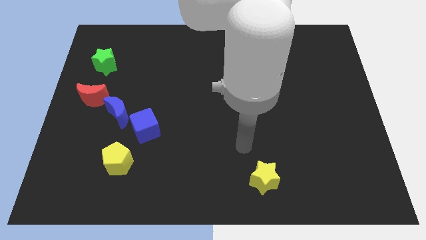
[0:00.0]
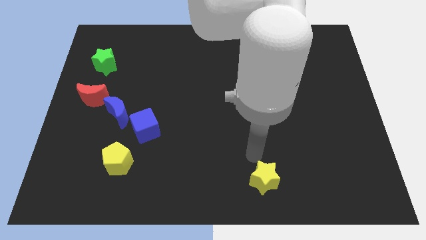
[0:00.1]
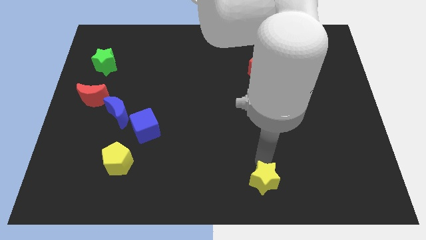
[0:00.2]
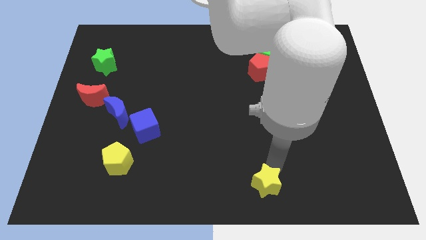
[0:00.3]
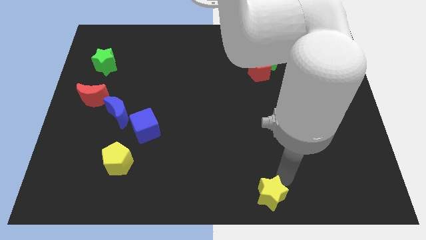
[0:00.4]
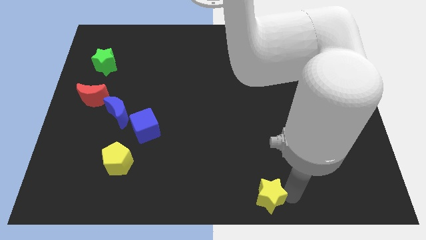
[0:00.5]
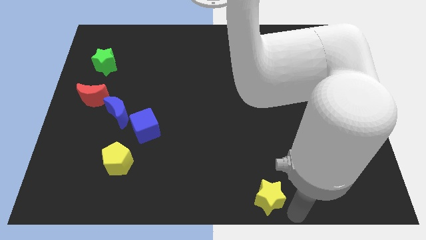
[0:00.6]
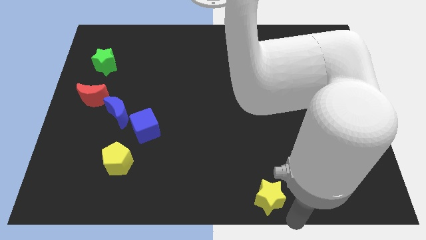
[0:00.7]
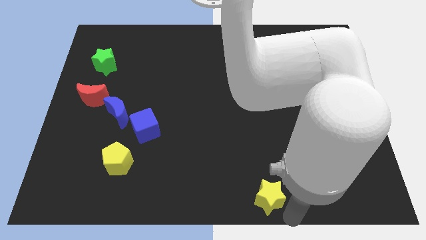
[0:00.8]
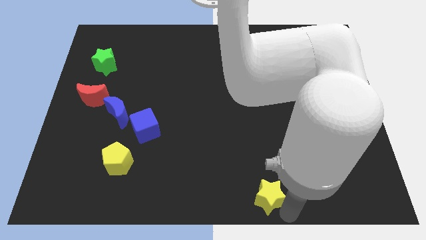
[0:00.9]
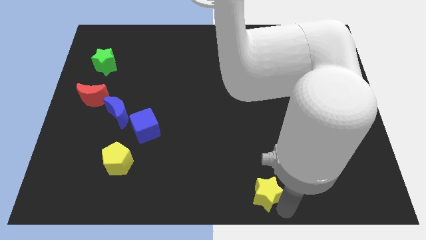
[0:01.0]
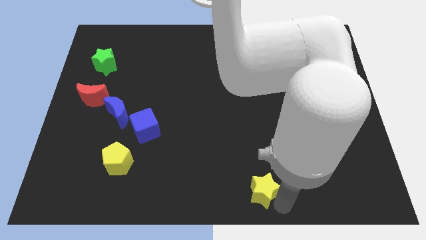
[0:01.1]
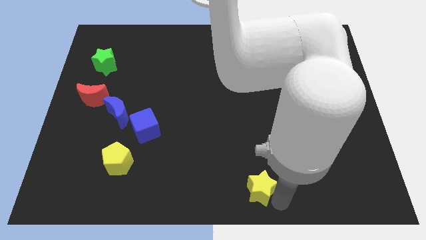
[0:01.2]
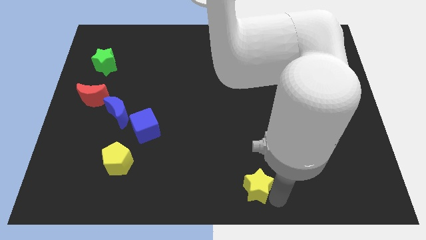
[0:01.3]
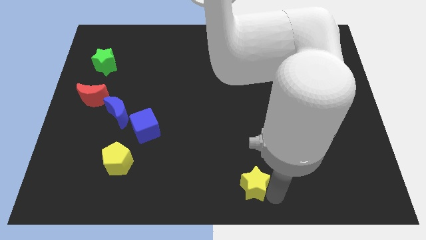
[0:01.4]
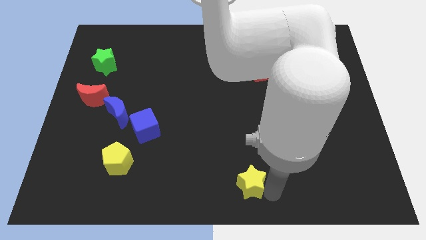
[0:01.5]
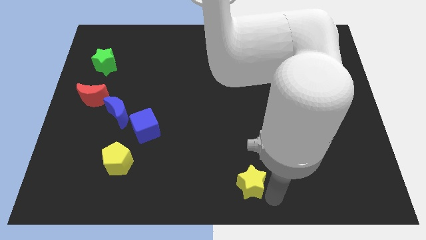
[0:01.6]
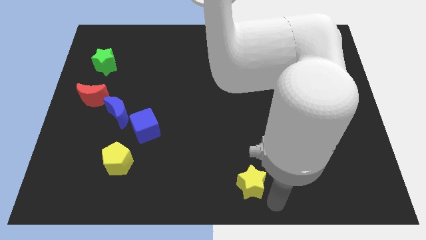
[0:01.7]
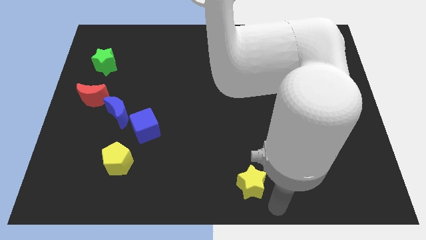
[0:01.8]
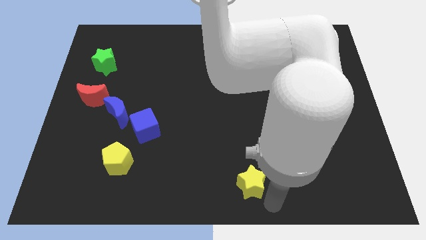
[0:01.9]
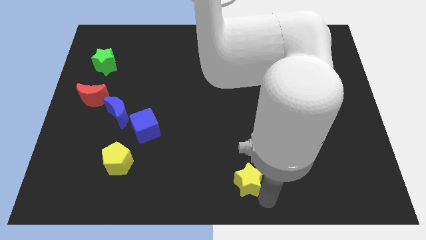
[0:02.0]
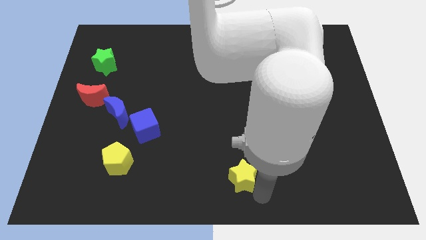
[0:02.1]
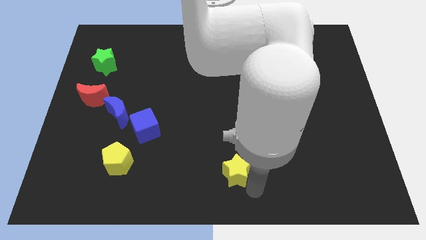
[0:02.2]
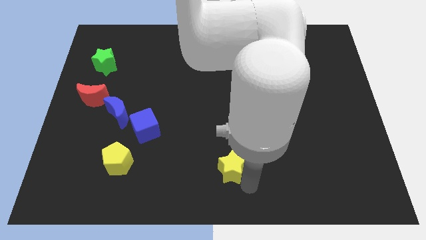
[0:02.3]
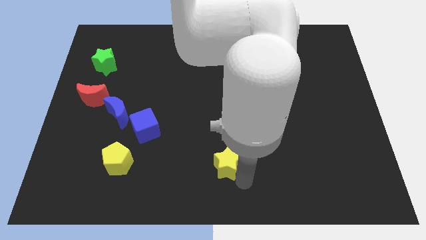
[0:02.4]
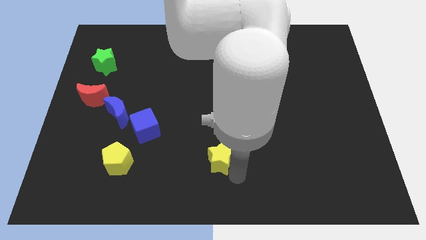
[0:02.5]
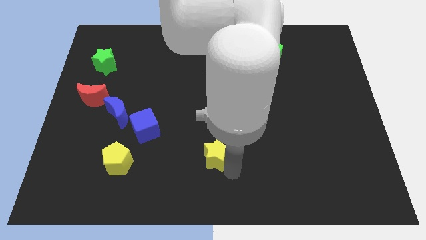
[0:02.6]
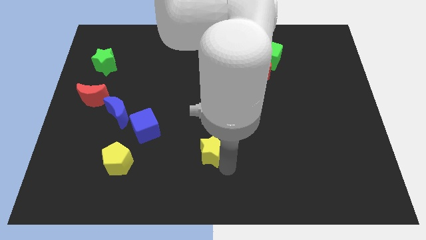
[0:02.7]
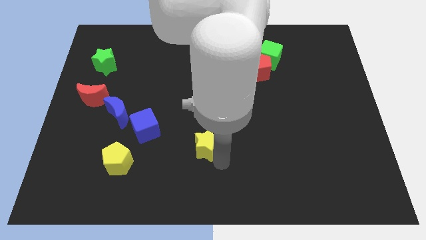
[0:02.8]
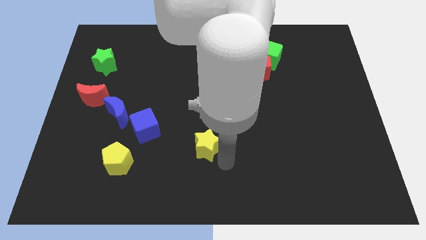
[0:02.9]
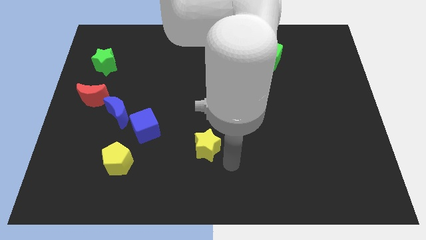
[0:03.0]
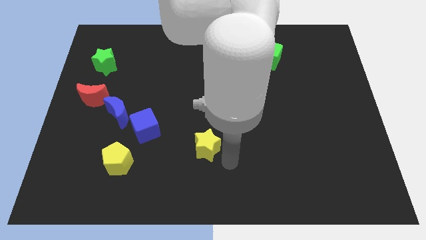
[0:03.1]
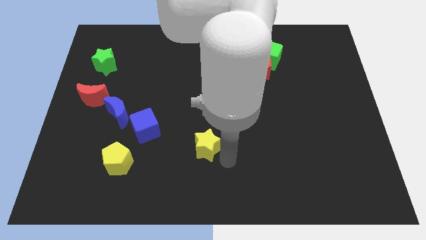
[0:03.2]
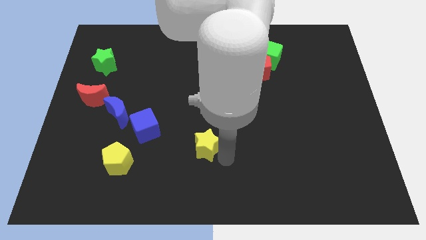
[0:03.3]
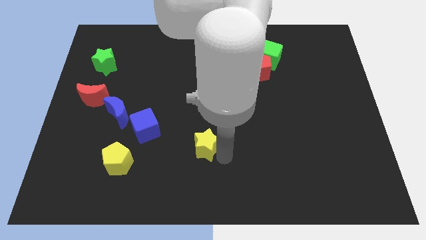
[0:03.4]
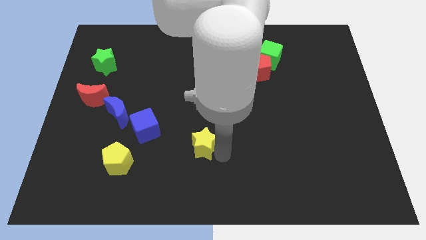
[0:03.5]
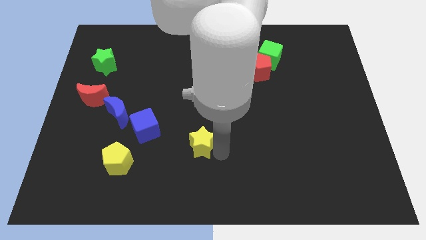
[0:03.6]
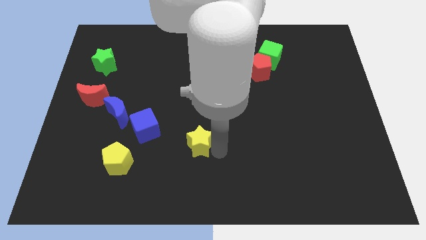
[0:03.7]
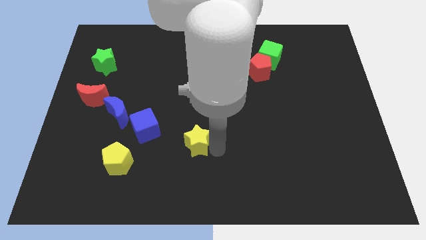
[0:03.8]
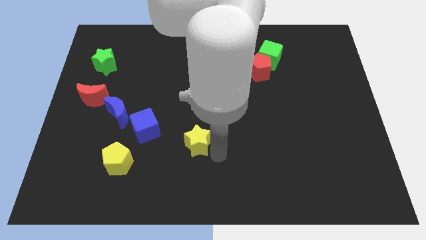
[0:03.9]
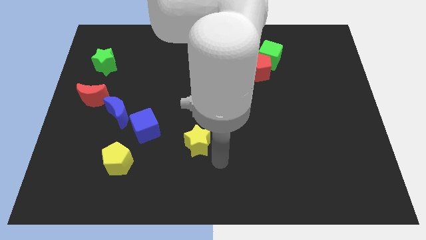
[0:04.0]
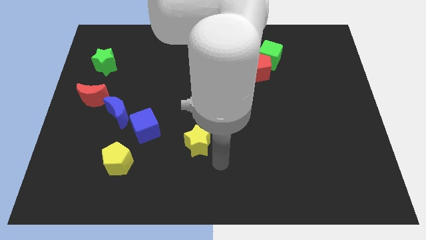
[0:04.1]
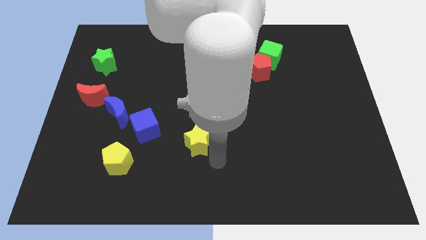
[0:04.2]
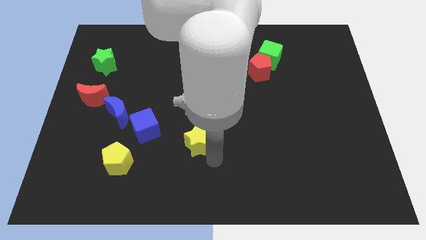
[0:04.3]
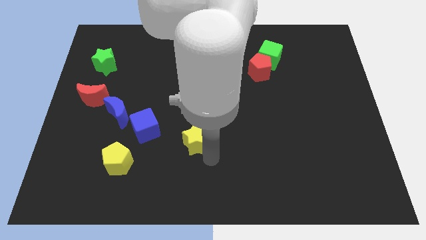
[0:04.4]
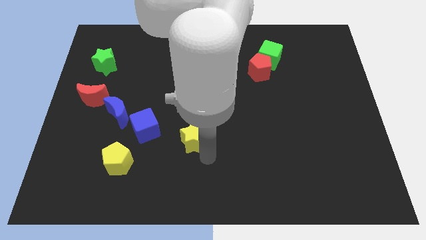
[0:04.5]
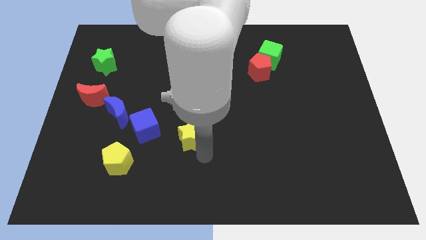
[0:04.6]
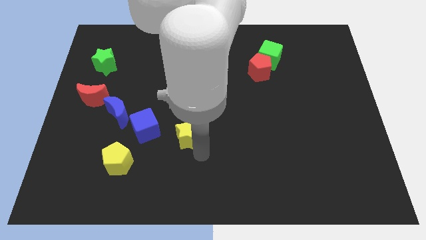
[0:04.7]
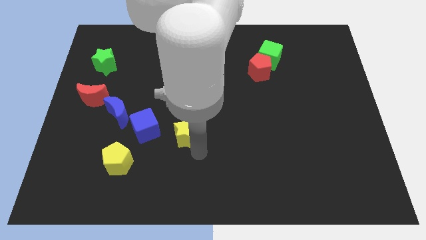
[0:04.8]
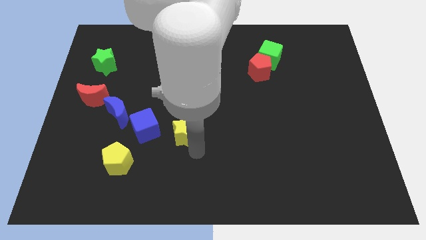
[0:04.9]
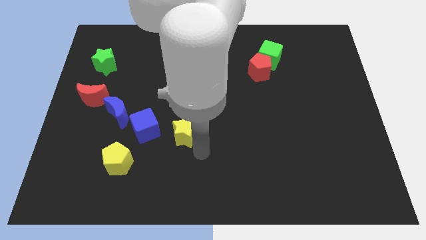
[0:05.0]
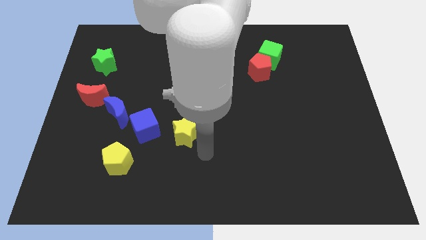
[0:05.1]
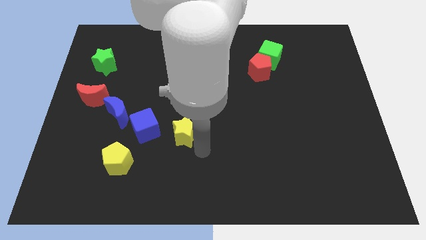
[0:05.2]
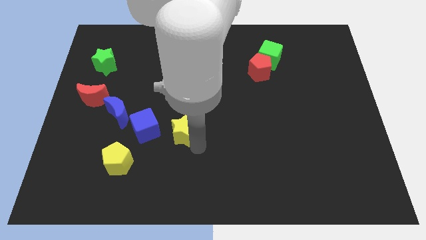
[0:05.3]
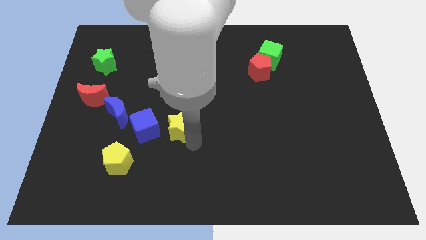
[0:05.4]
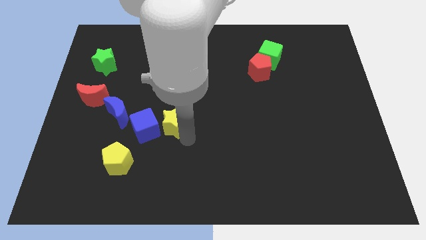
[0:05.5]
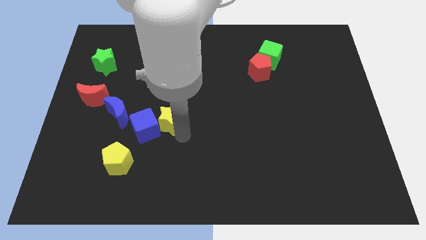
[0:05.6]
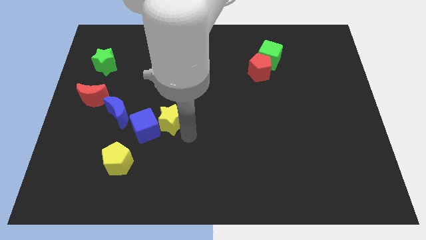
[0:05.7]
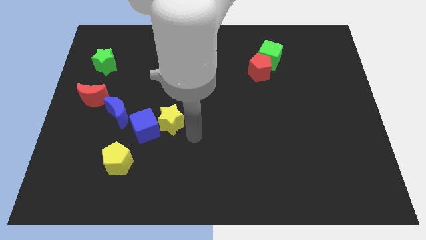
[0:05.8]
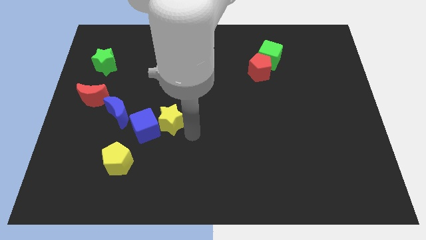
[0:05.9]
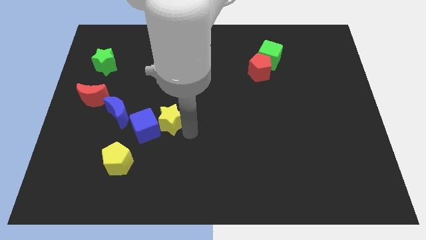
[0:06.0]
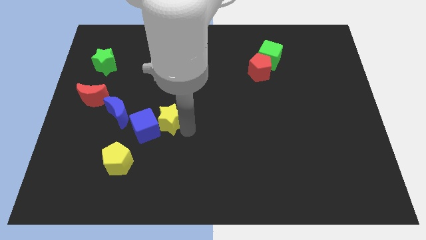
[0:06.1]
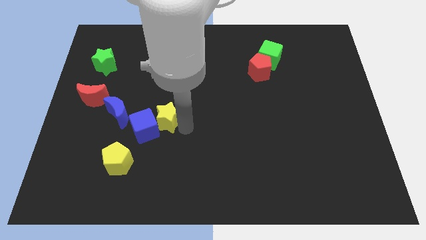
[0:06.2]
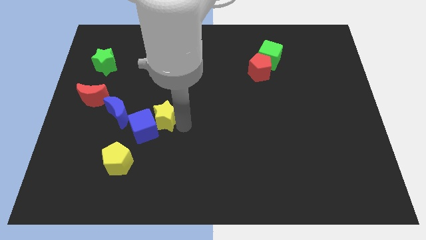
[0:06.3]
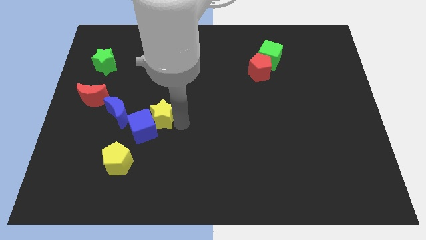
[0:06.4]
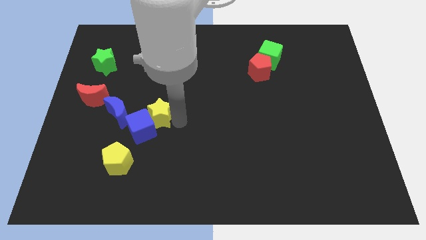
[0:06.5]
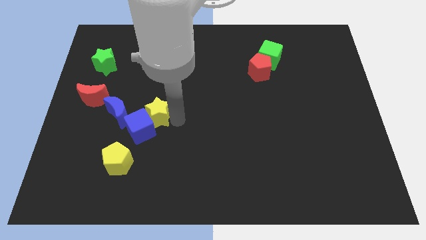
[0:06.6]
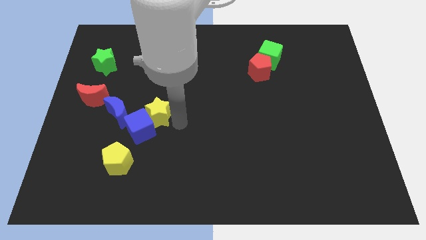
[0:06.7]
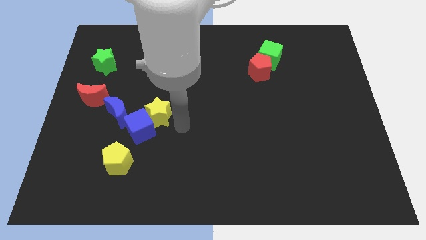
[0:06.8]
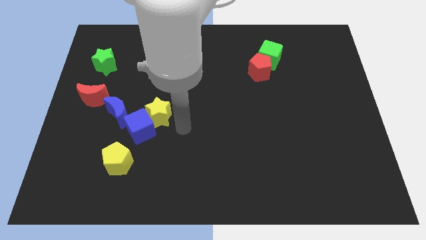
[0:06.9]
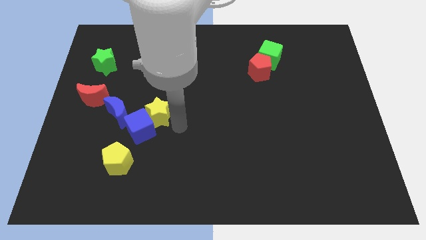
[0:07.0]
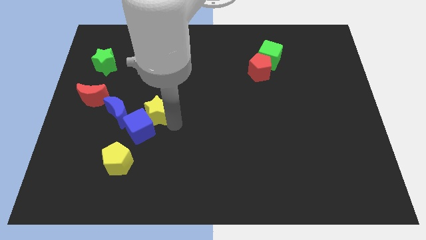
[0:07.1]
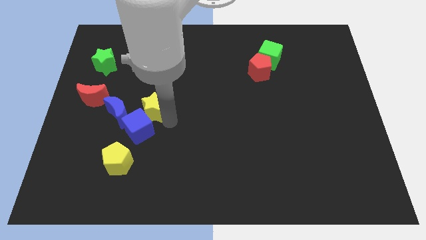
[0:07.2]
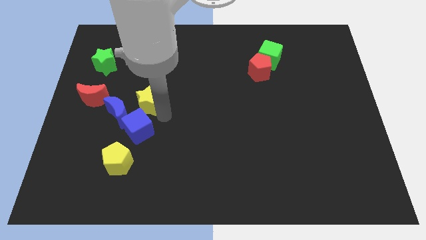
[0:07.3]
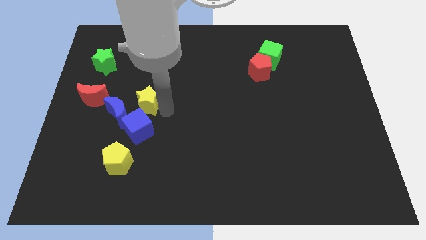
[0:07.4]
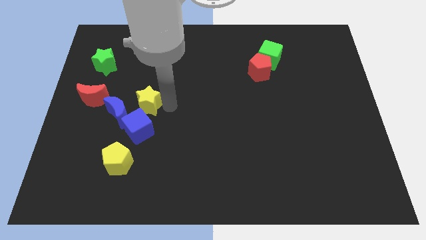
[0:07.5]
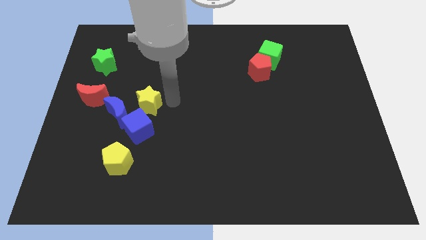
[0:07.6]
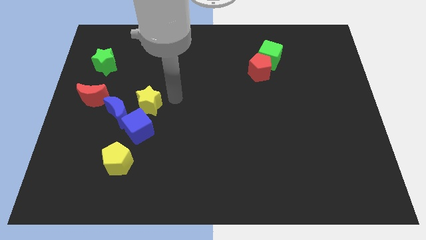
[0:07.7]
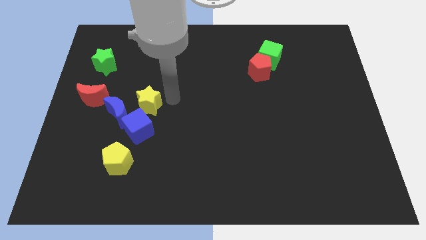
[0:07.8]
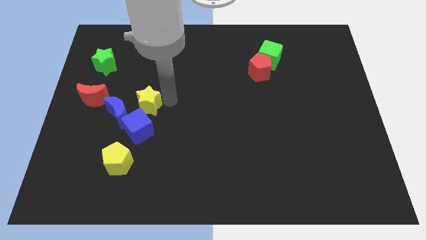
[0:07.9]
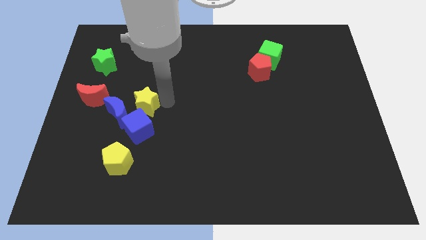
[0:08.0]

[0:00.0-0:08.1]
put the yellow star next to the blue moon

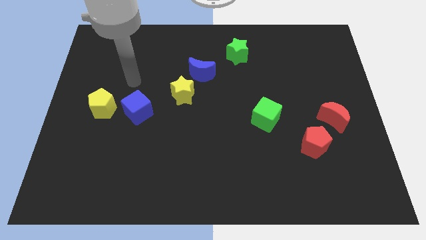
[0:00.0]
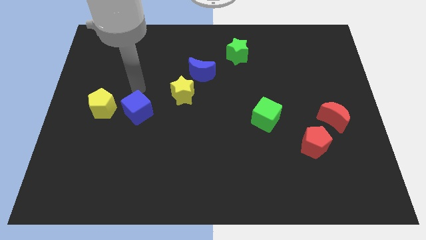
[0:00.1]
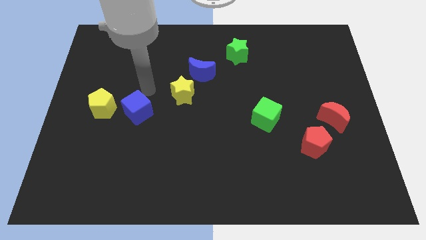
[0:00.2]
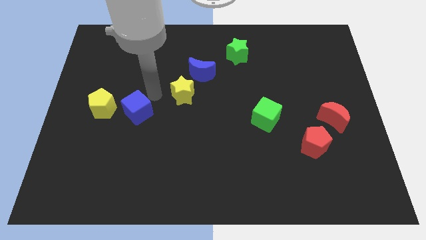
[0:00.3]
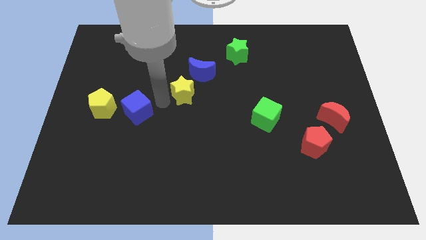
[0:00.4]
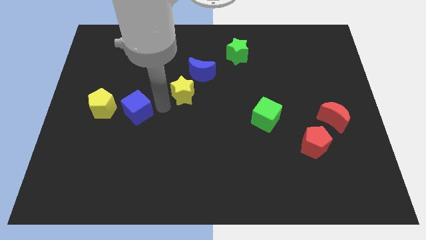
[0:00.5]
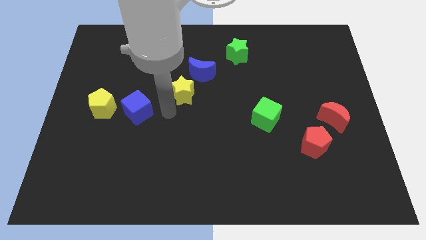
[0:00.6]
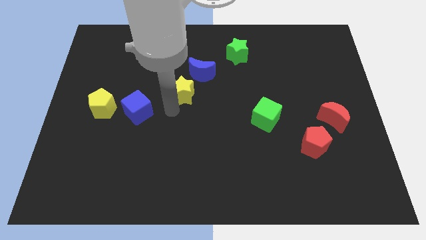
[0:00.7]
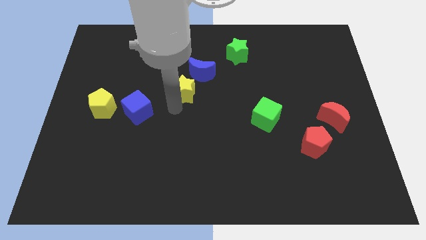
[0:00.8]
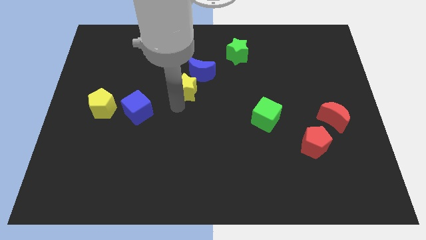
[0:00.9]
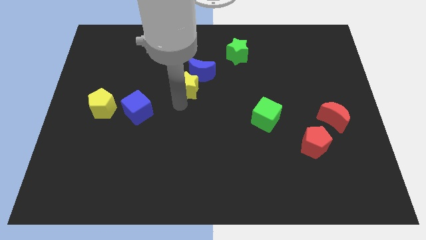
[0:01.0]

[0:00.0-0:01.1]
put the yellow star to the blue moon
